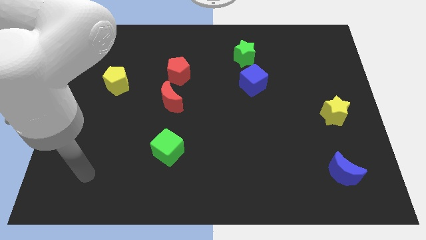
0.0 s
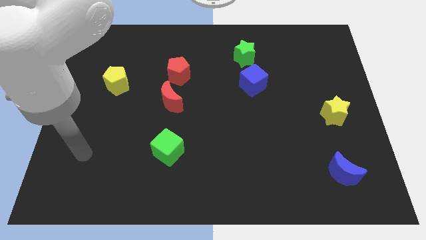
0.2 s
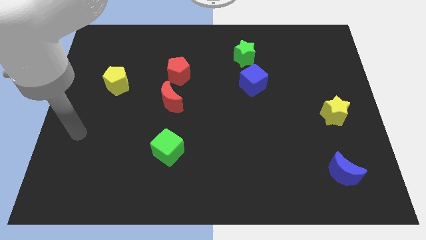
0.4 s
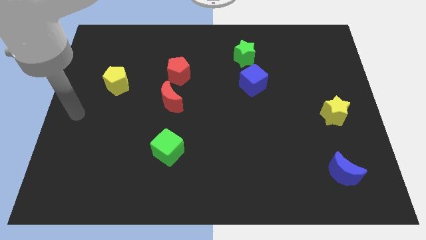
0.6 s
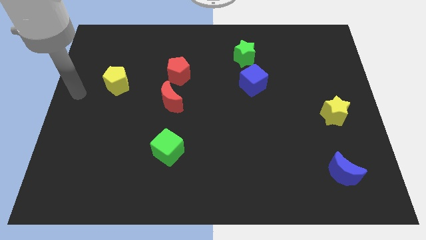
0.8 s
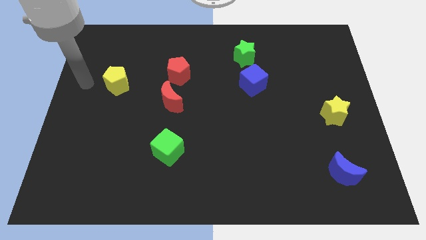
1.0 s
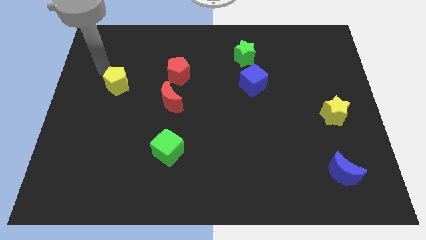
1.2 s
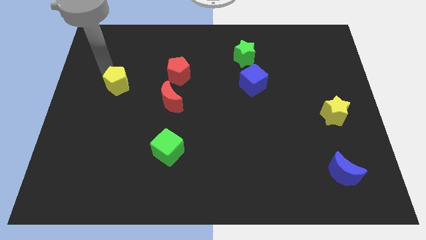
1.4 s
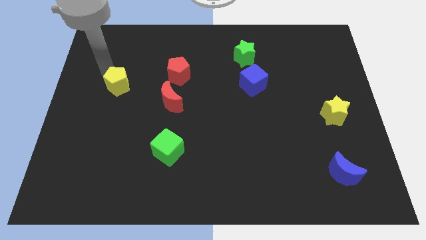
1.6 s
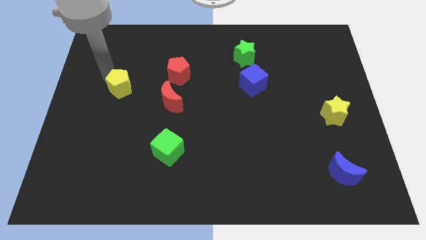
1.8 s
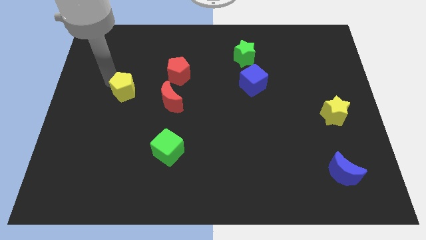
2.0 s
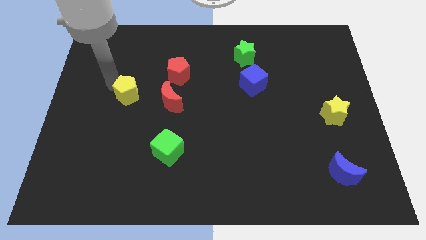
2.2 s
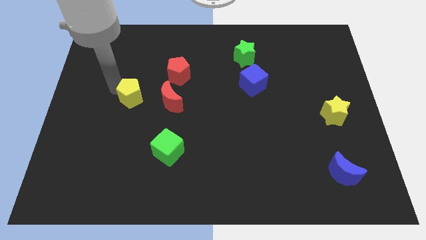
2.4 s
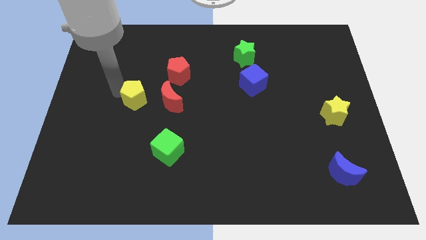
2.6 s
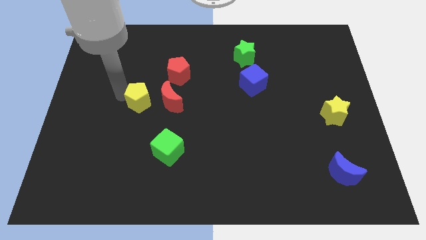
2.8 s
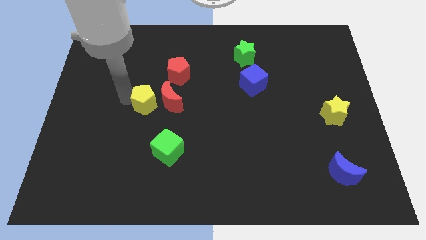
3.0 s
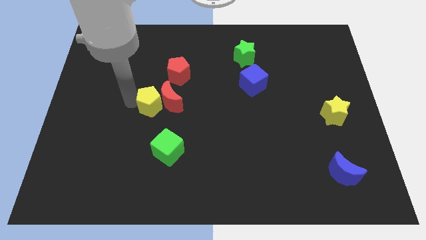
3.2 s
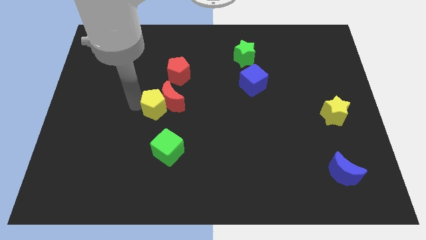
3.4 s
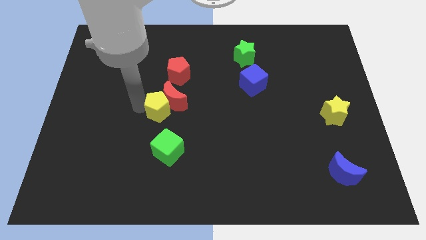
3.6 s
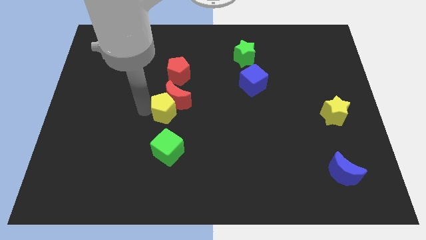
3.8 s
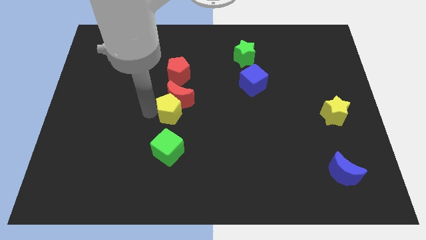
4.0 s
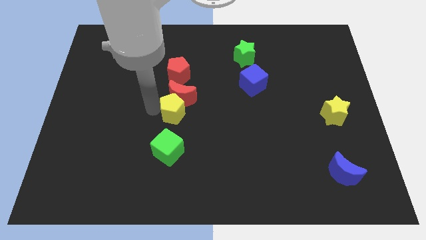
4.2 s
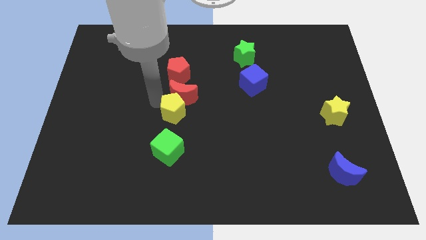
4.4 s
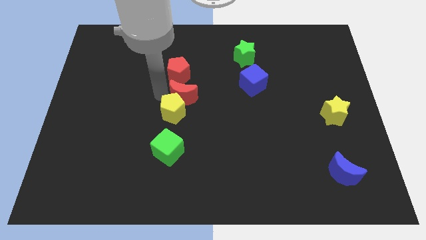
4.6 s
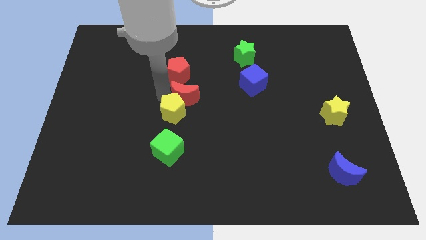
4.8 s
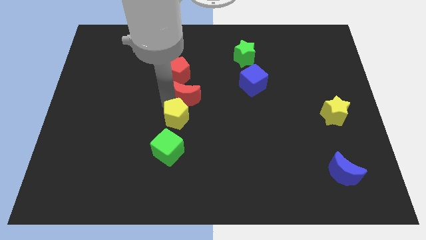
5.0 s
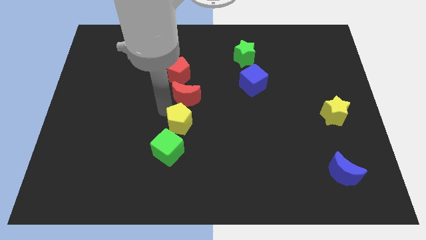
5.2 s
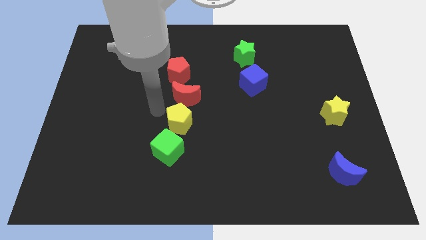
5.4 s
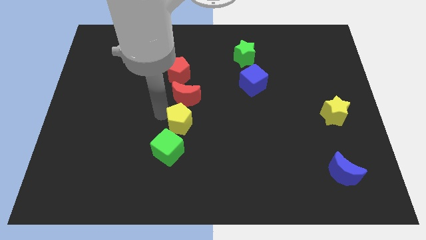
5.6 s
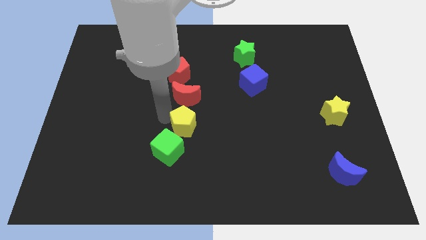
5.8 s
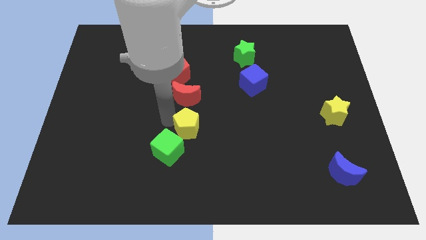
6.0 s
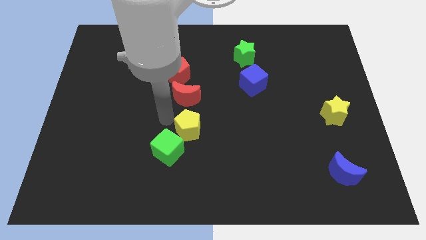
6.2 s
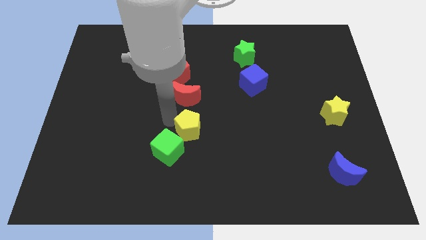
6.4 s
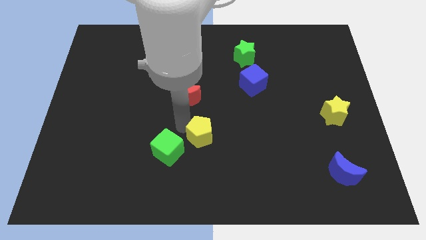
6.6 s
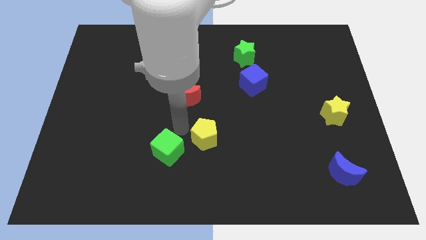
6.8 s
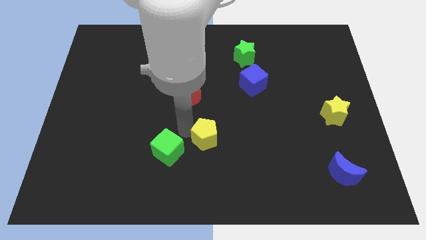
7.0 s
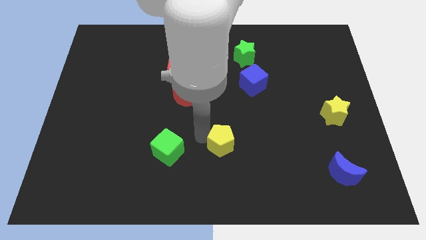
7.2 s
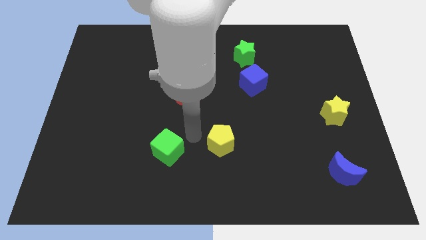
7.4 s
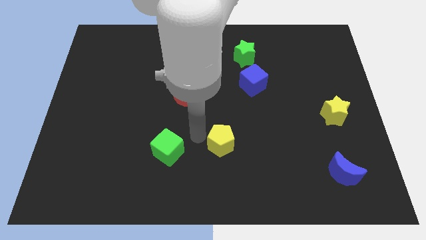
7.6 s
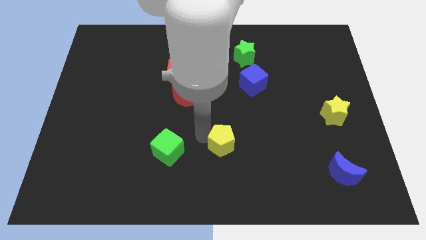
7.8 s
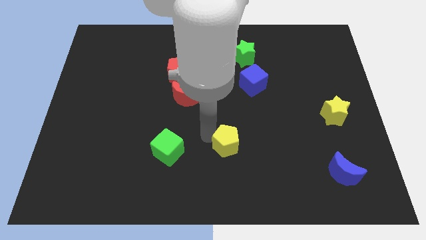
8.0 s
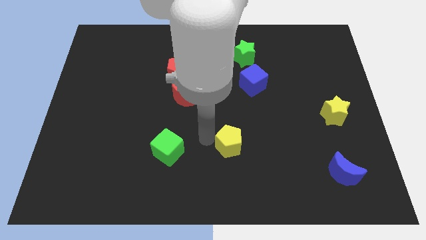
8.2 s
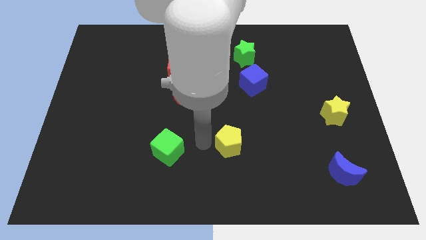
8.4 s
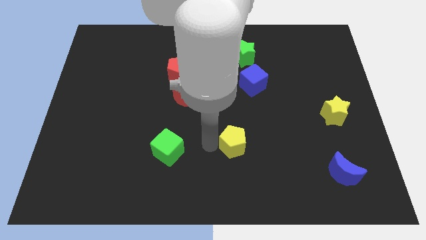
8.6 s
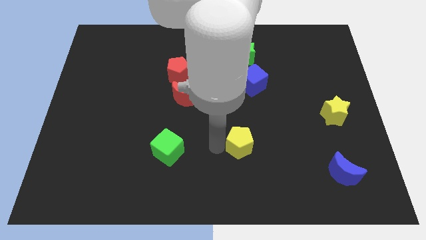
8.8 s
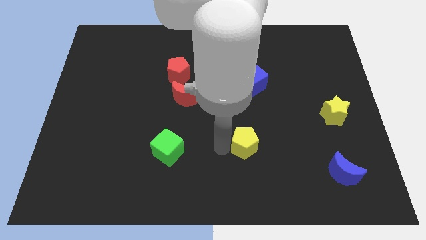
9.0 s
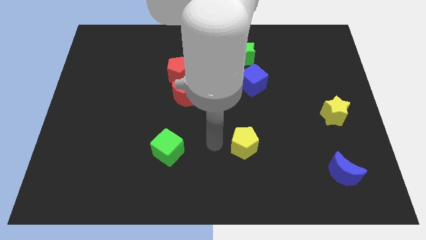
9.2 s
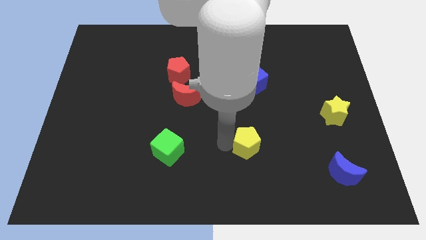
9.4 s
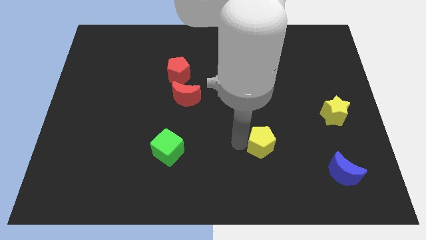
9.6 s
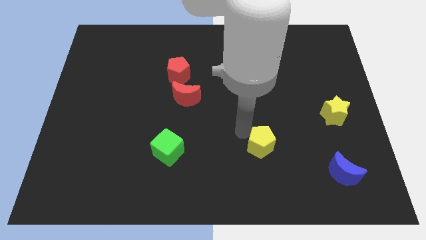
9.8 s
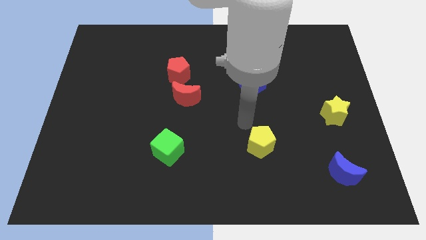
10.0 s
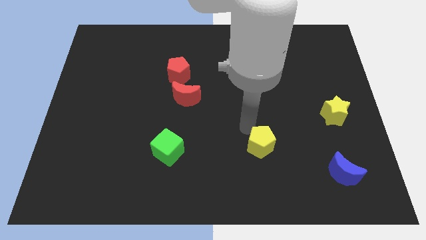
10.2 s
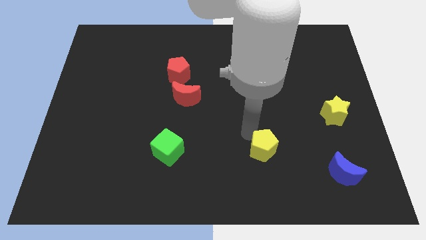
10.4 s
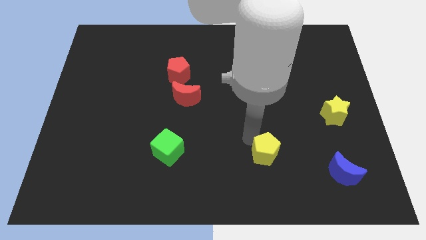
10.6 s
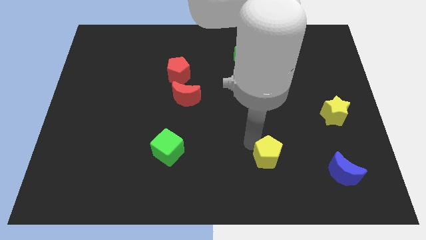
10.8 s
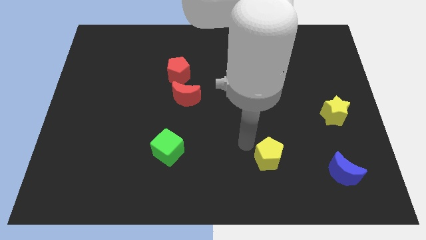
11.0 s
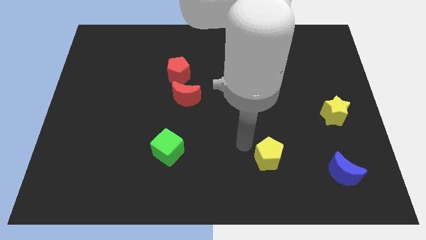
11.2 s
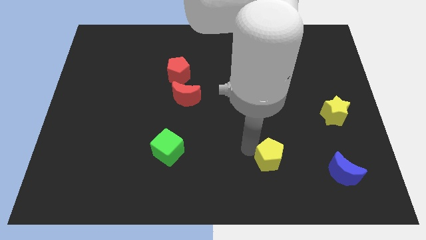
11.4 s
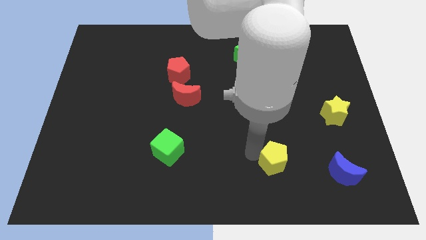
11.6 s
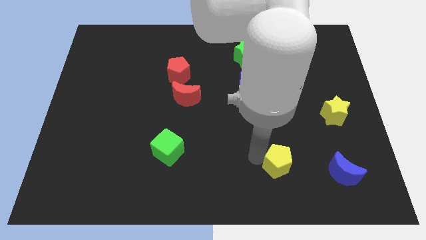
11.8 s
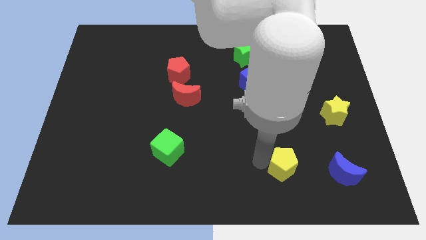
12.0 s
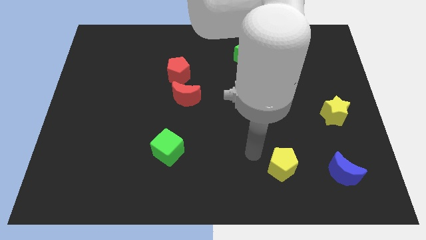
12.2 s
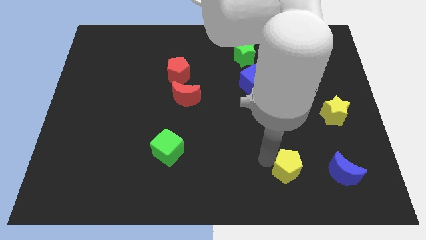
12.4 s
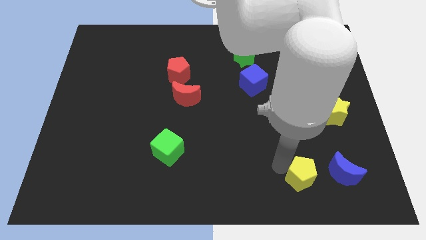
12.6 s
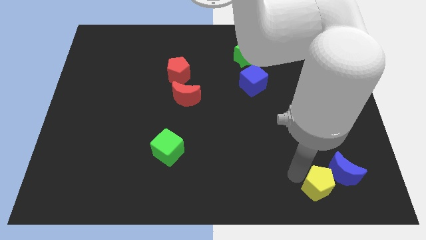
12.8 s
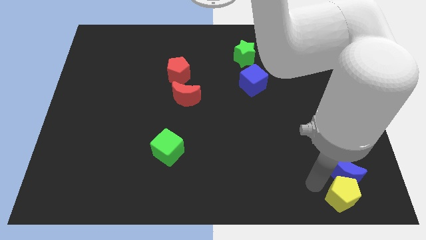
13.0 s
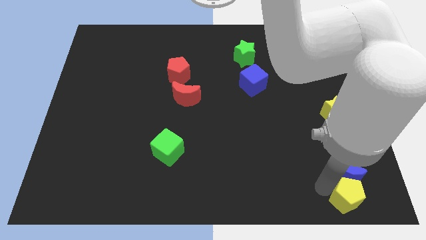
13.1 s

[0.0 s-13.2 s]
slide the yellow pentagon to the lower right corner
